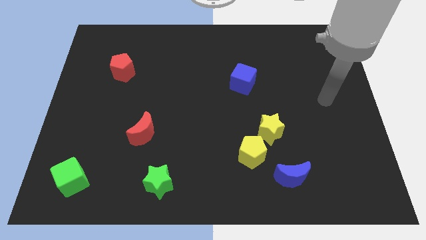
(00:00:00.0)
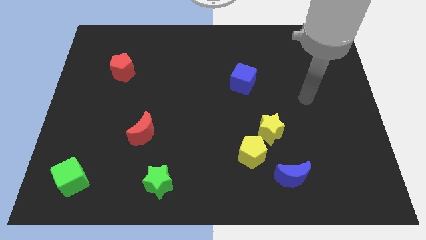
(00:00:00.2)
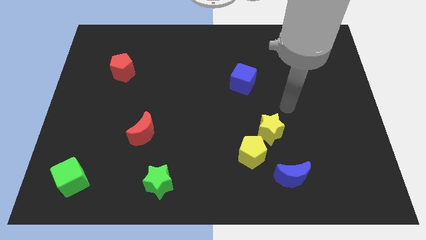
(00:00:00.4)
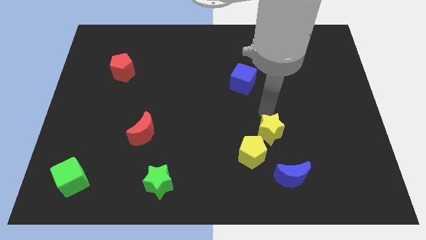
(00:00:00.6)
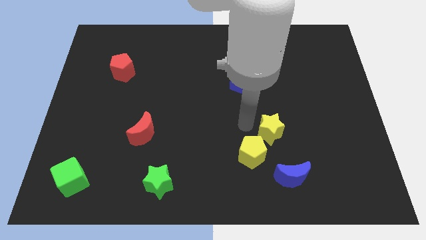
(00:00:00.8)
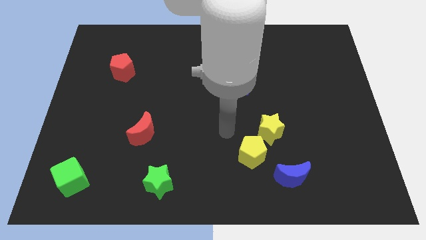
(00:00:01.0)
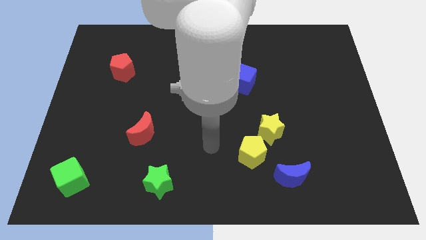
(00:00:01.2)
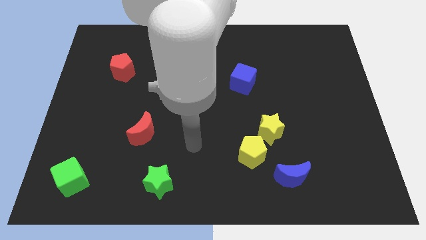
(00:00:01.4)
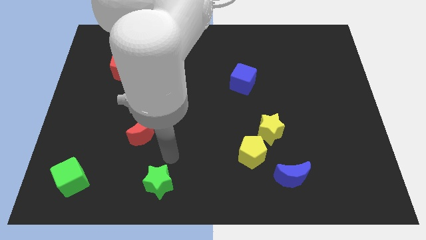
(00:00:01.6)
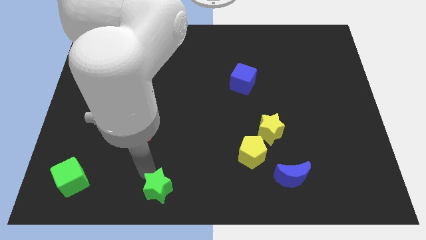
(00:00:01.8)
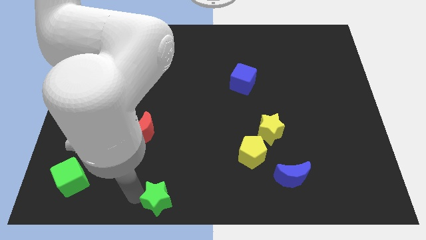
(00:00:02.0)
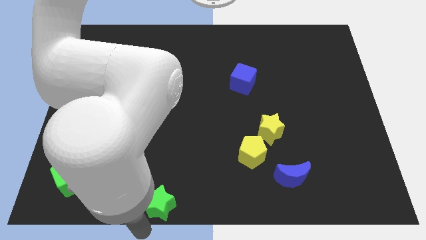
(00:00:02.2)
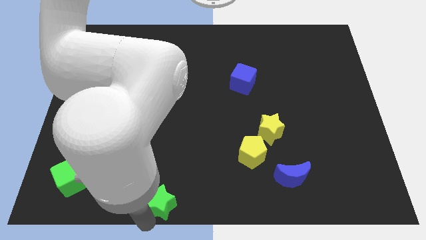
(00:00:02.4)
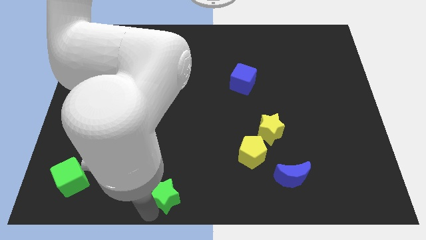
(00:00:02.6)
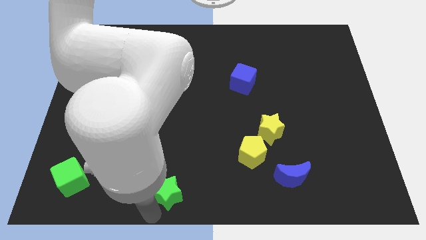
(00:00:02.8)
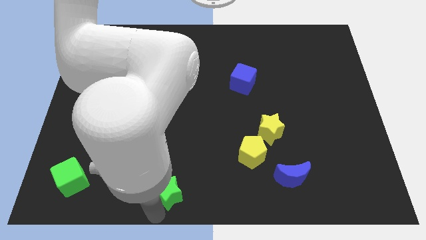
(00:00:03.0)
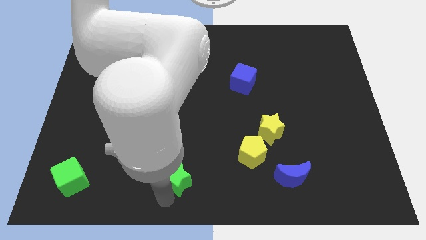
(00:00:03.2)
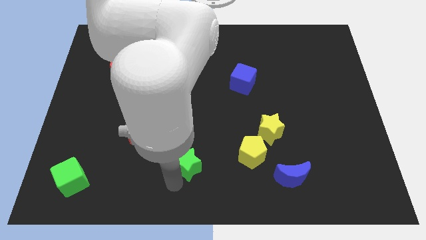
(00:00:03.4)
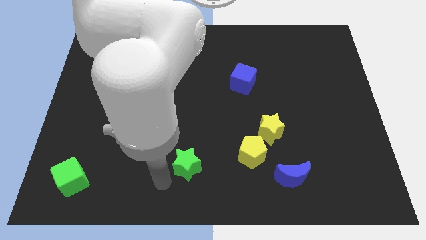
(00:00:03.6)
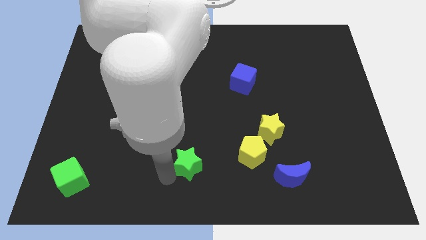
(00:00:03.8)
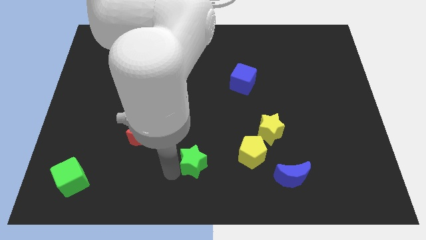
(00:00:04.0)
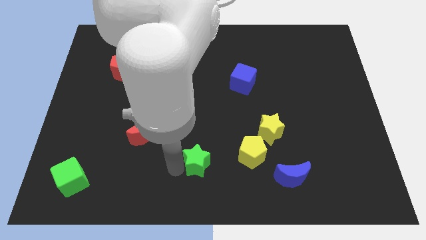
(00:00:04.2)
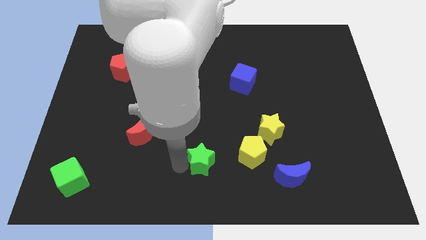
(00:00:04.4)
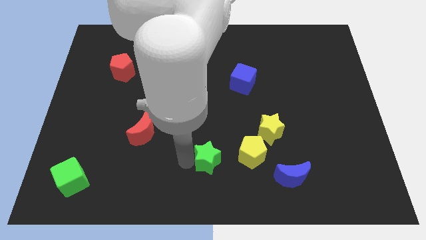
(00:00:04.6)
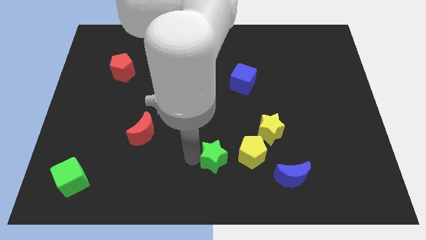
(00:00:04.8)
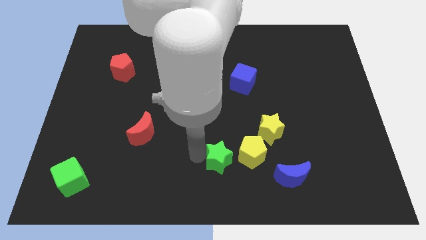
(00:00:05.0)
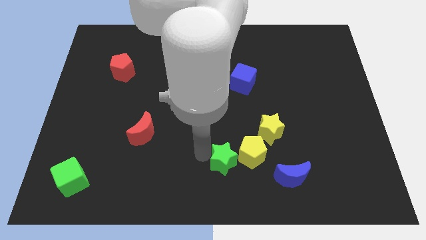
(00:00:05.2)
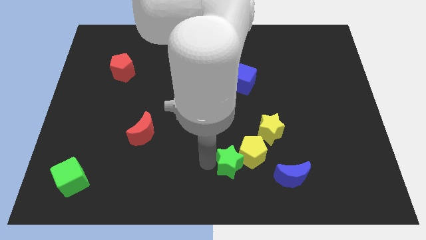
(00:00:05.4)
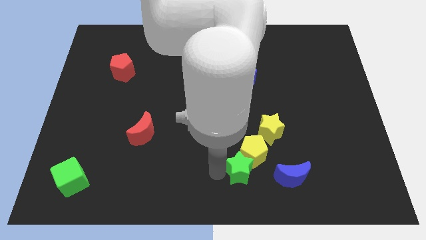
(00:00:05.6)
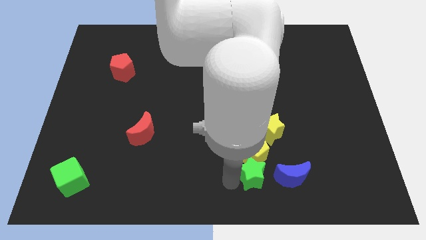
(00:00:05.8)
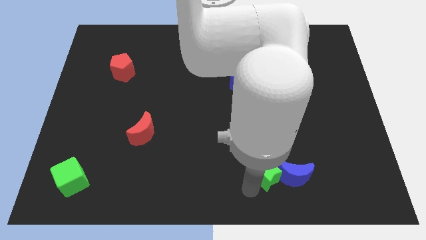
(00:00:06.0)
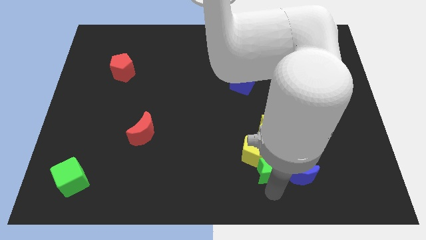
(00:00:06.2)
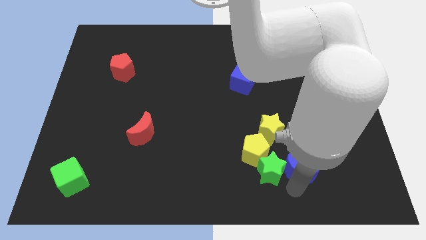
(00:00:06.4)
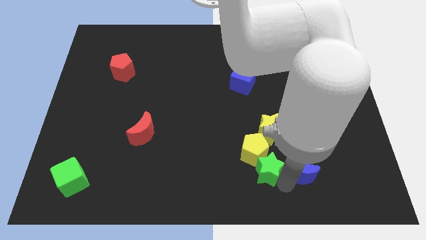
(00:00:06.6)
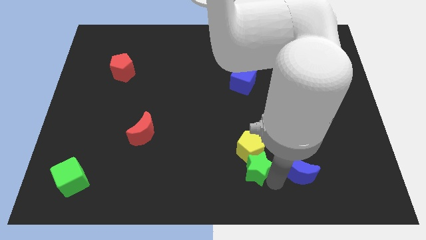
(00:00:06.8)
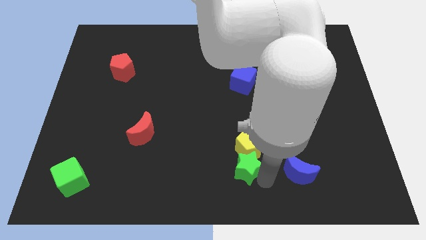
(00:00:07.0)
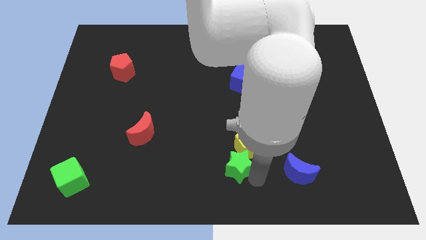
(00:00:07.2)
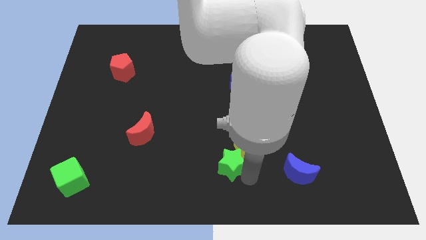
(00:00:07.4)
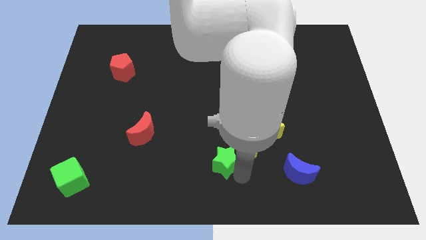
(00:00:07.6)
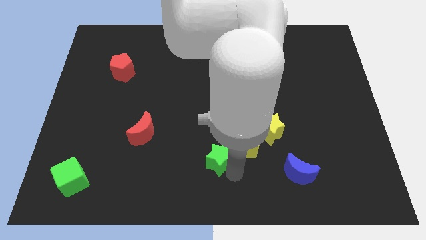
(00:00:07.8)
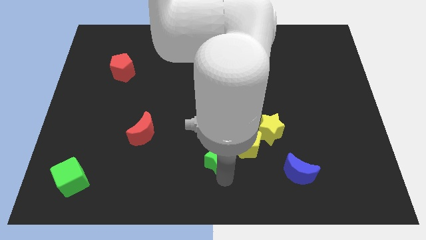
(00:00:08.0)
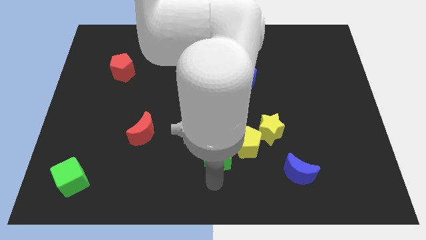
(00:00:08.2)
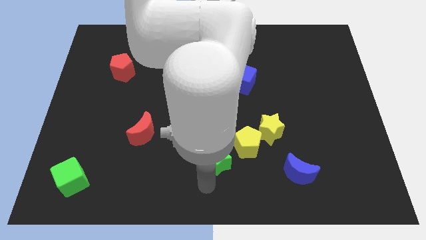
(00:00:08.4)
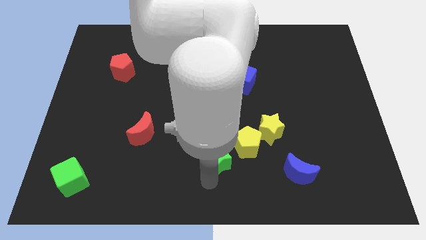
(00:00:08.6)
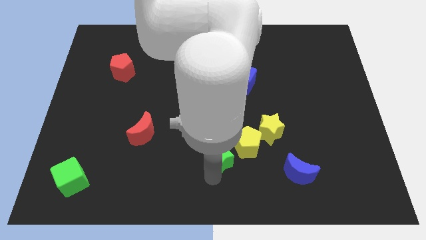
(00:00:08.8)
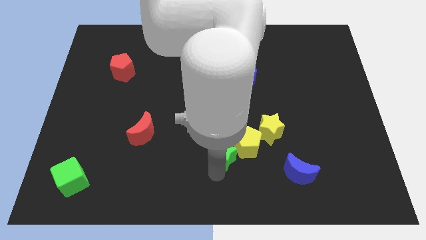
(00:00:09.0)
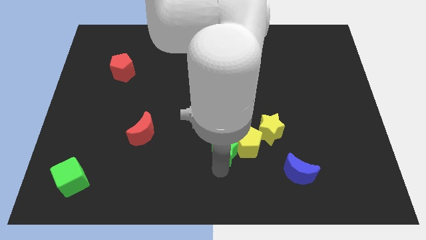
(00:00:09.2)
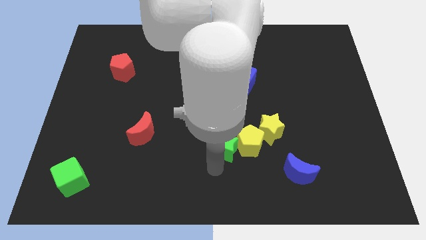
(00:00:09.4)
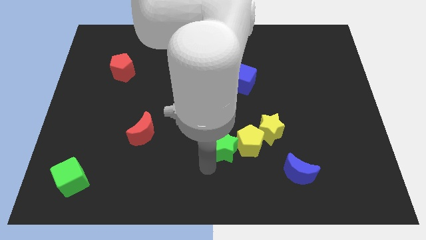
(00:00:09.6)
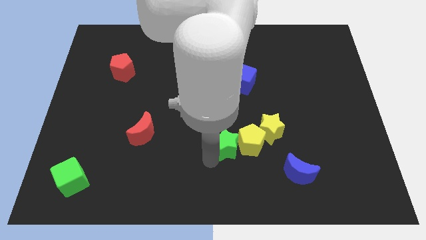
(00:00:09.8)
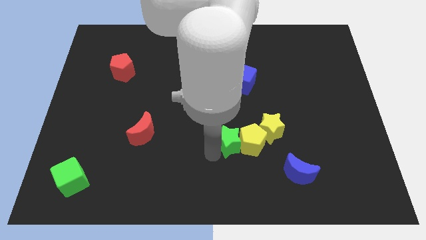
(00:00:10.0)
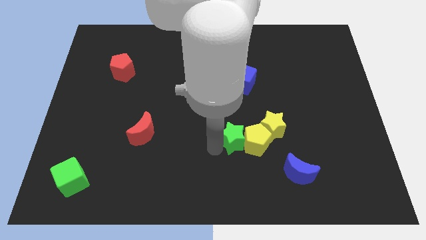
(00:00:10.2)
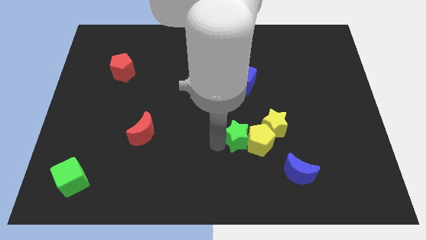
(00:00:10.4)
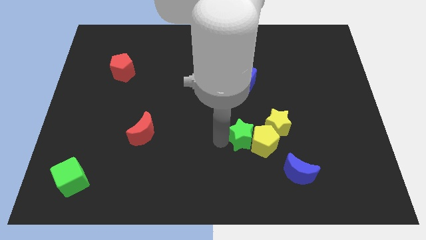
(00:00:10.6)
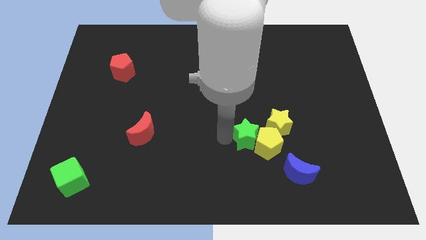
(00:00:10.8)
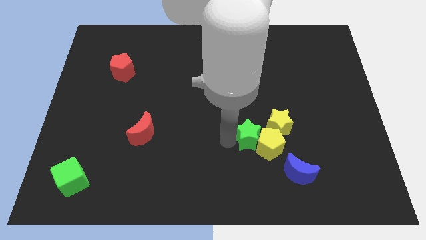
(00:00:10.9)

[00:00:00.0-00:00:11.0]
move the green star upwards and right diagonally

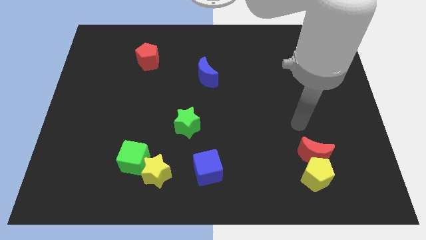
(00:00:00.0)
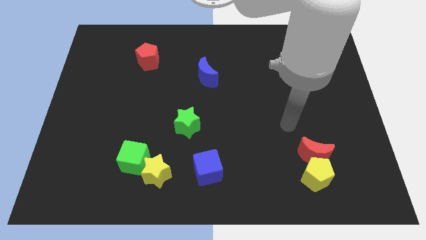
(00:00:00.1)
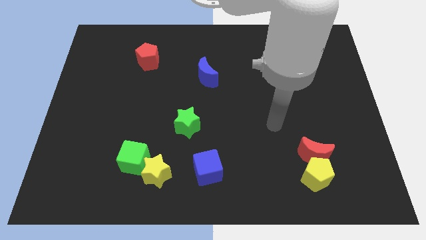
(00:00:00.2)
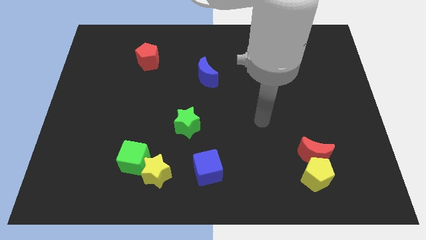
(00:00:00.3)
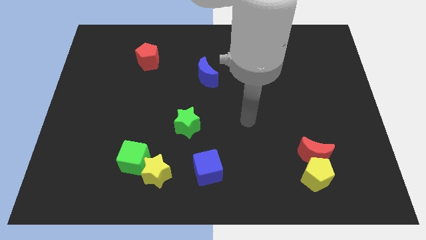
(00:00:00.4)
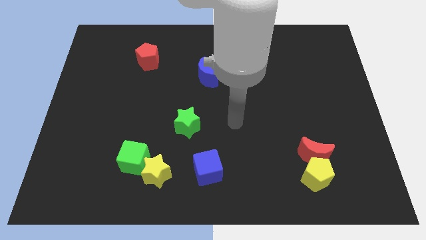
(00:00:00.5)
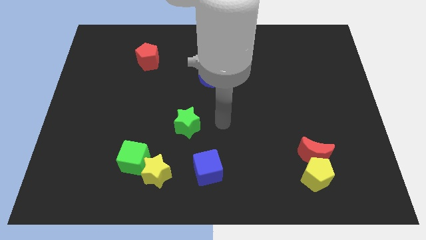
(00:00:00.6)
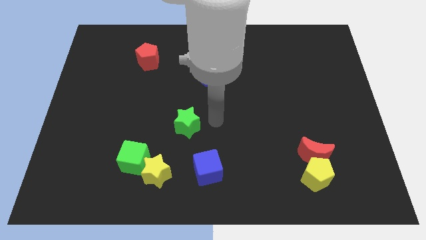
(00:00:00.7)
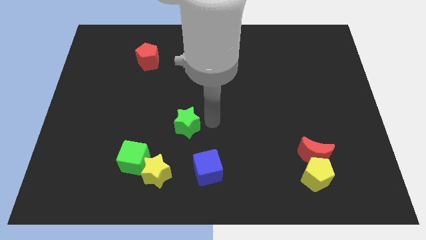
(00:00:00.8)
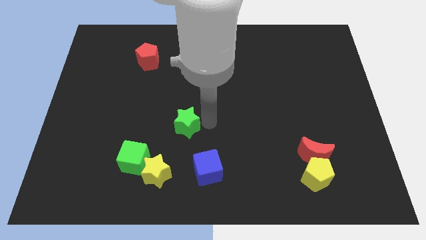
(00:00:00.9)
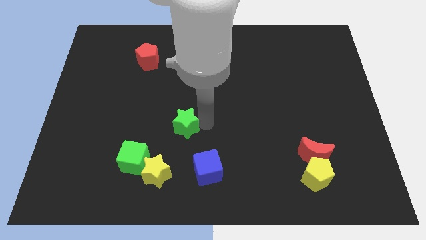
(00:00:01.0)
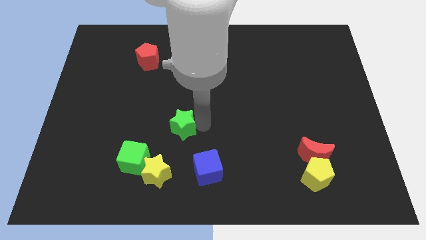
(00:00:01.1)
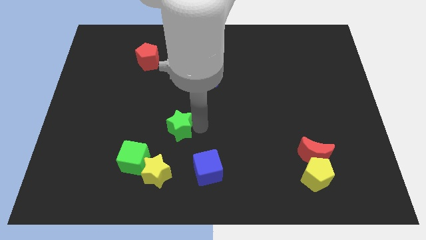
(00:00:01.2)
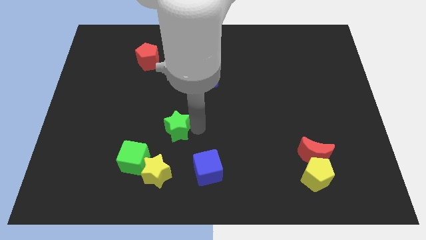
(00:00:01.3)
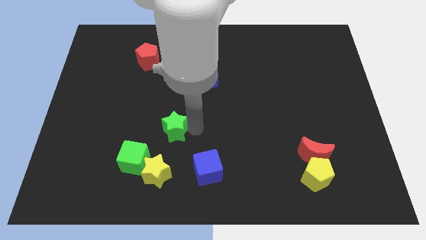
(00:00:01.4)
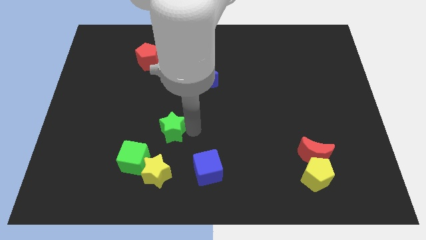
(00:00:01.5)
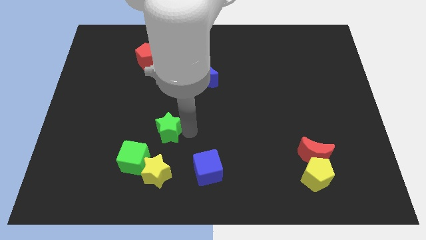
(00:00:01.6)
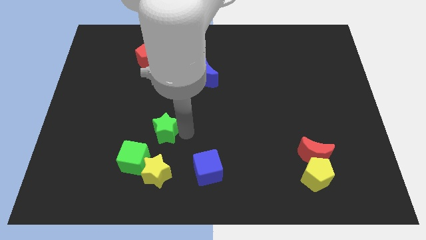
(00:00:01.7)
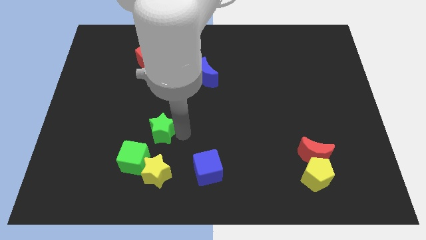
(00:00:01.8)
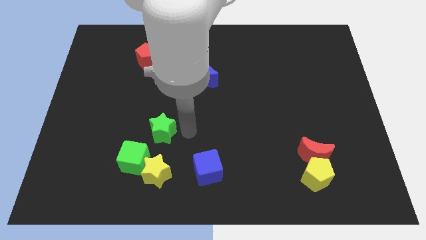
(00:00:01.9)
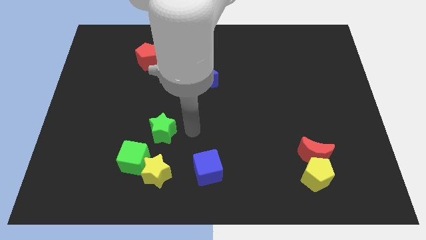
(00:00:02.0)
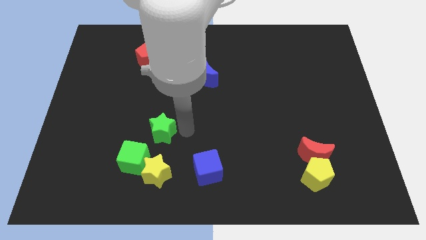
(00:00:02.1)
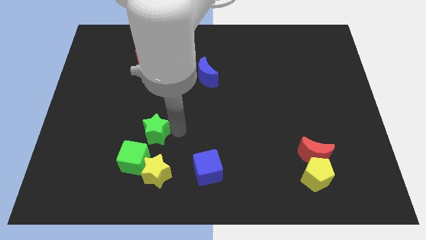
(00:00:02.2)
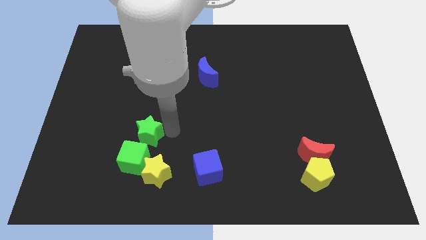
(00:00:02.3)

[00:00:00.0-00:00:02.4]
slide the green star a bit to the left

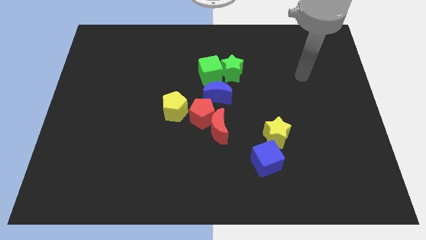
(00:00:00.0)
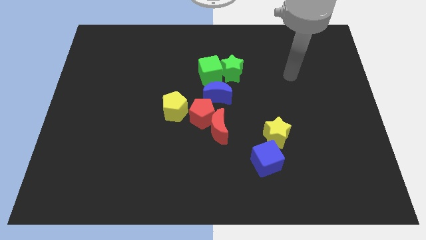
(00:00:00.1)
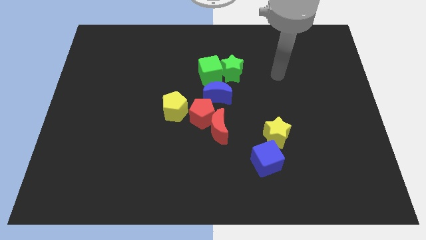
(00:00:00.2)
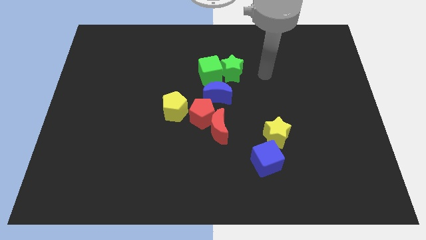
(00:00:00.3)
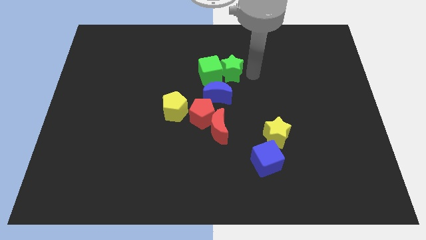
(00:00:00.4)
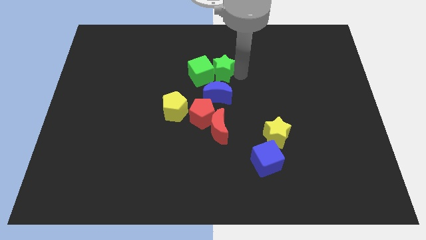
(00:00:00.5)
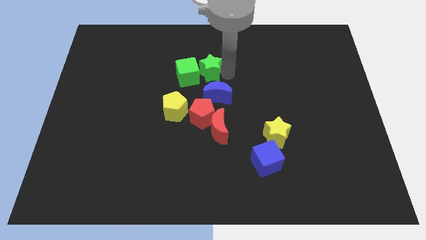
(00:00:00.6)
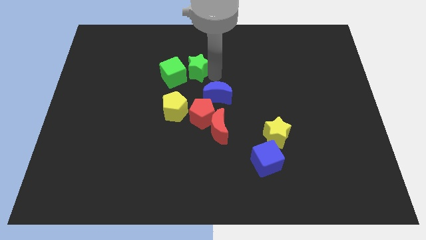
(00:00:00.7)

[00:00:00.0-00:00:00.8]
move the green cube to the left a little
